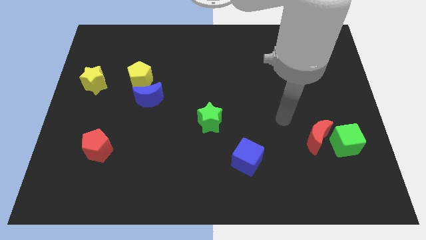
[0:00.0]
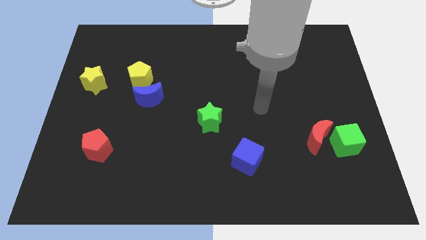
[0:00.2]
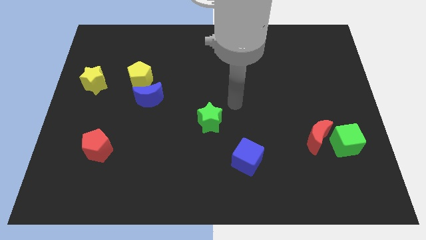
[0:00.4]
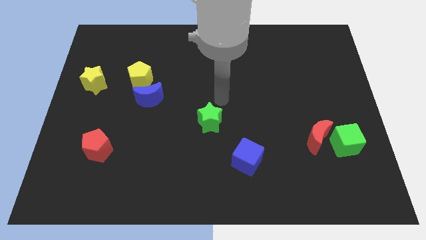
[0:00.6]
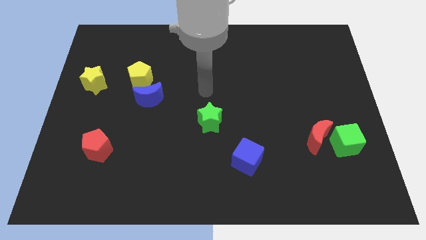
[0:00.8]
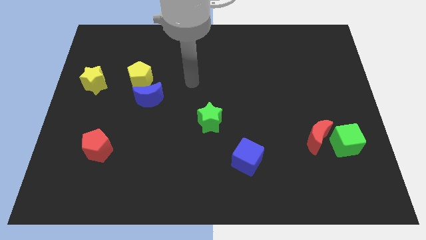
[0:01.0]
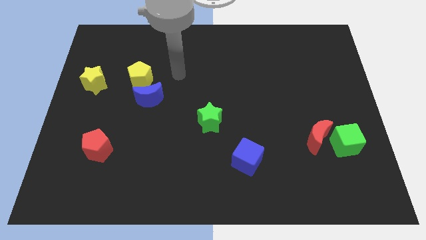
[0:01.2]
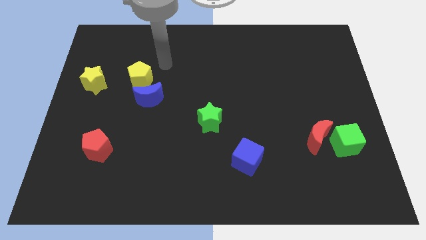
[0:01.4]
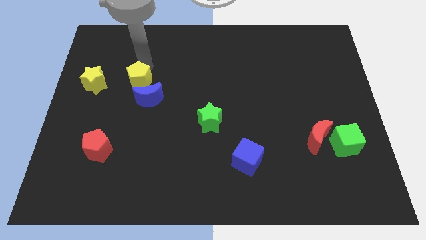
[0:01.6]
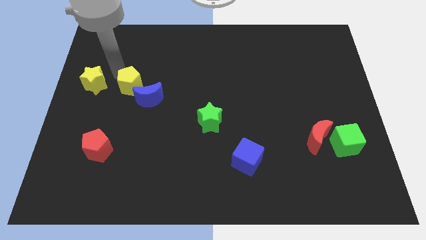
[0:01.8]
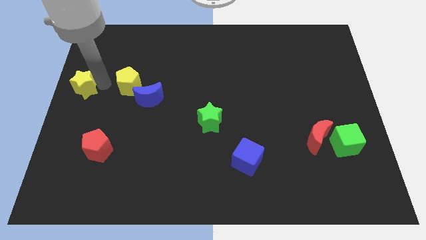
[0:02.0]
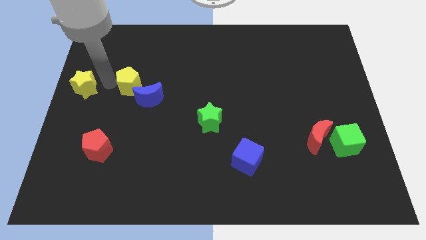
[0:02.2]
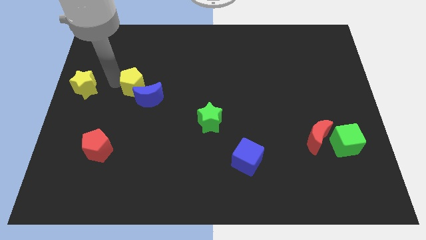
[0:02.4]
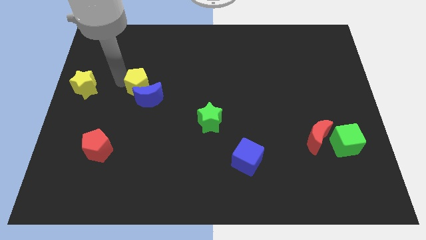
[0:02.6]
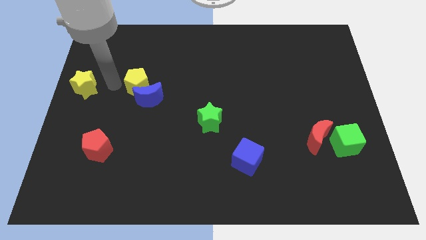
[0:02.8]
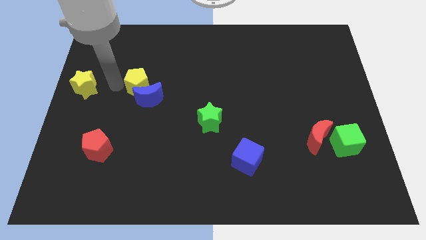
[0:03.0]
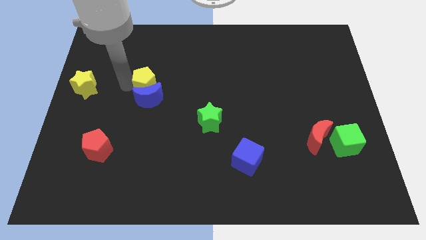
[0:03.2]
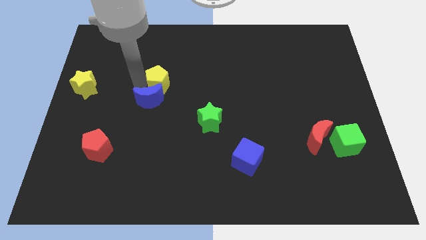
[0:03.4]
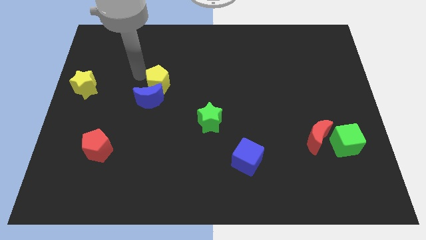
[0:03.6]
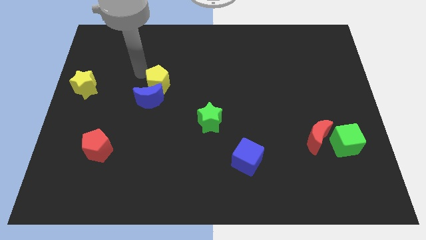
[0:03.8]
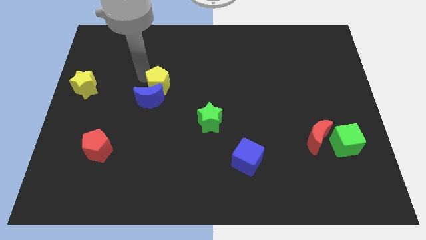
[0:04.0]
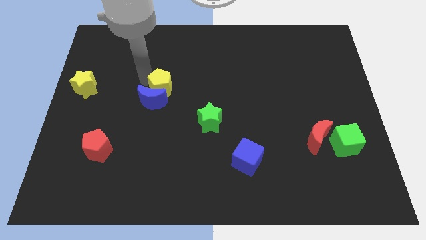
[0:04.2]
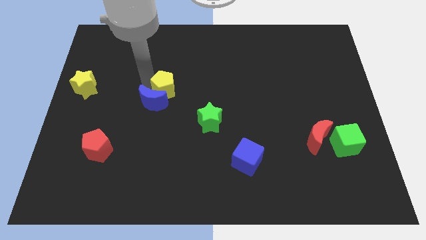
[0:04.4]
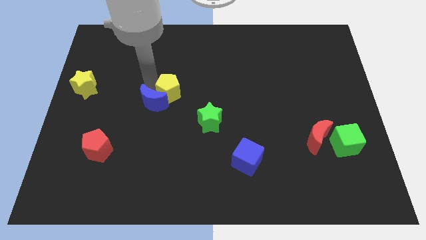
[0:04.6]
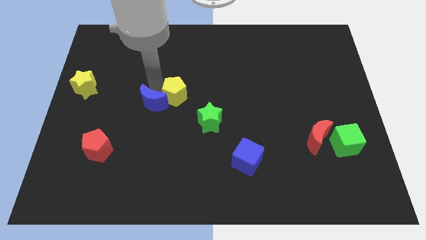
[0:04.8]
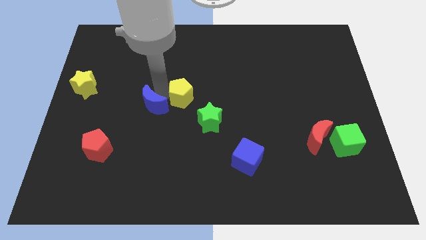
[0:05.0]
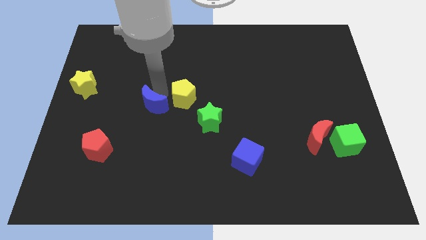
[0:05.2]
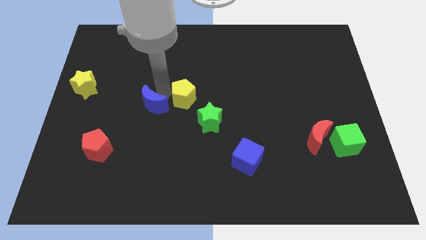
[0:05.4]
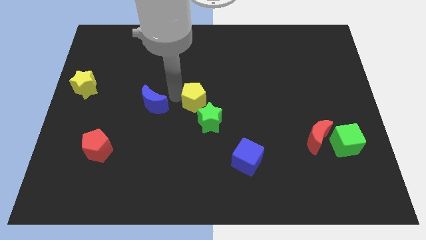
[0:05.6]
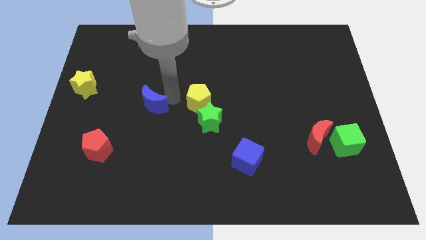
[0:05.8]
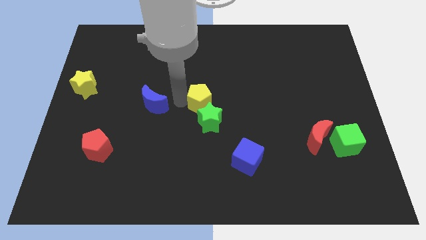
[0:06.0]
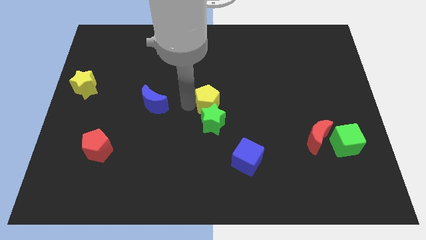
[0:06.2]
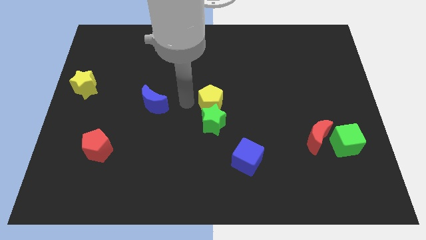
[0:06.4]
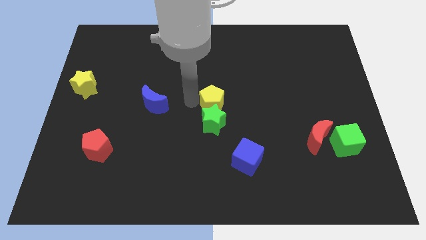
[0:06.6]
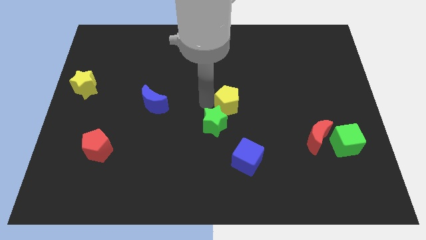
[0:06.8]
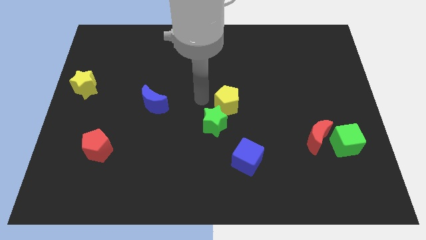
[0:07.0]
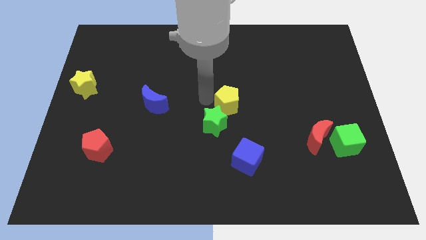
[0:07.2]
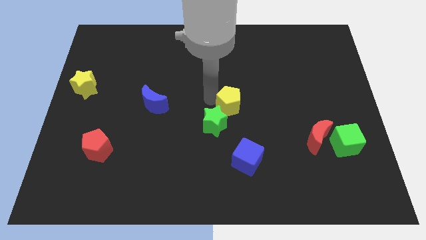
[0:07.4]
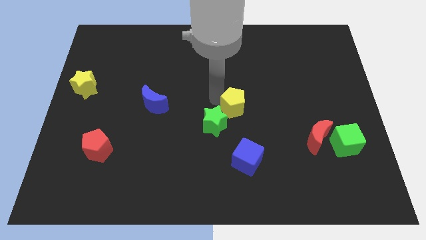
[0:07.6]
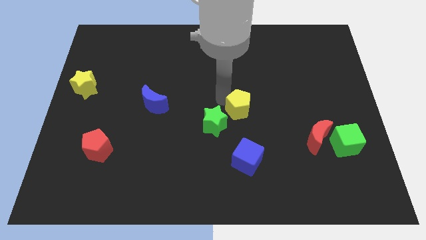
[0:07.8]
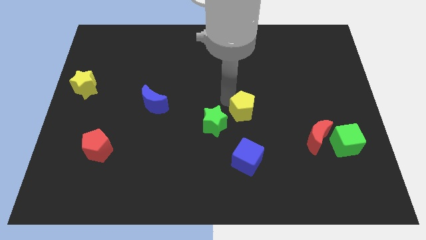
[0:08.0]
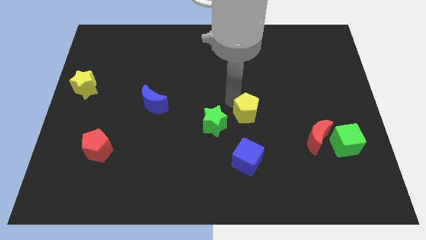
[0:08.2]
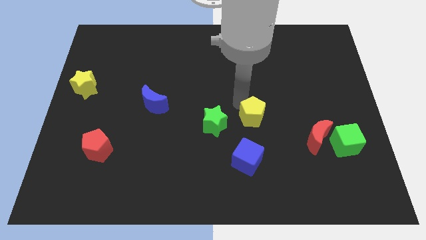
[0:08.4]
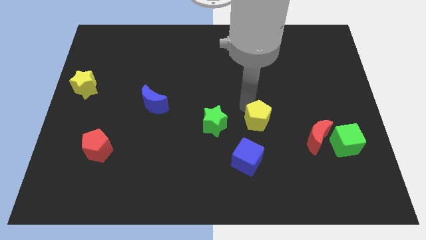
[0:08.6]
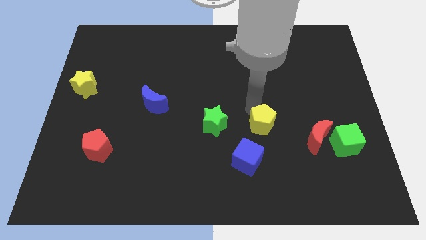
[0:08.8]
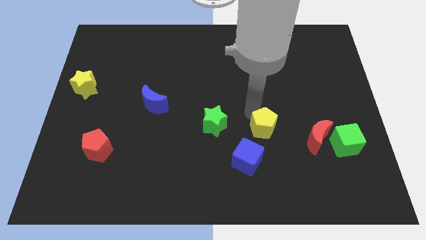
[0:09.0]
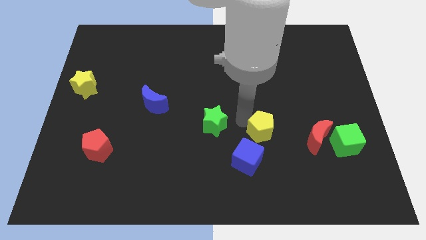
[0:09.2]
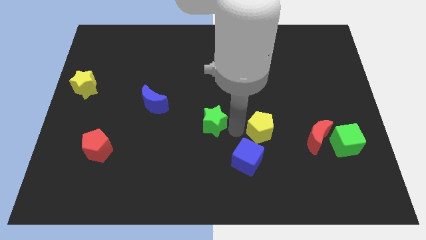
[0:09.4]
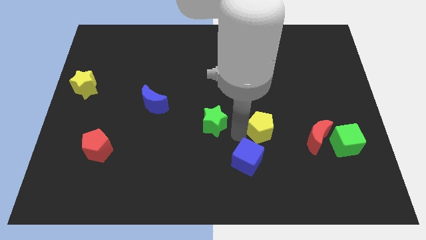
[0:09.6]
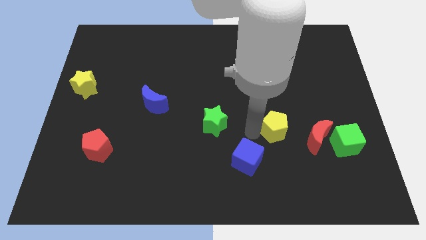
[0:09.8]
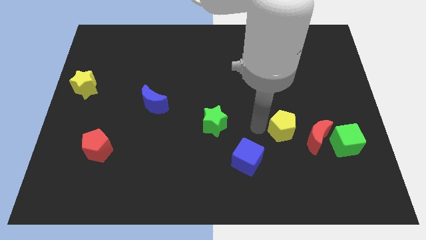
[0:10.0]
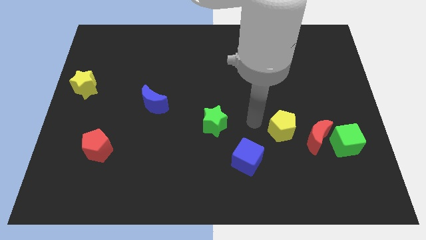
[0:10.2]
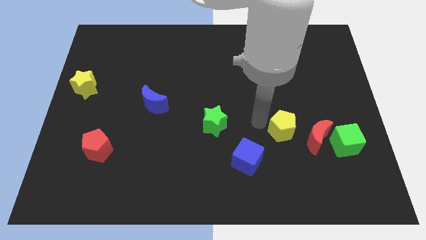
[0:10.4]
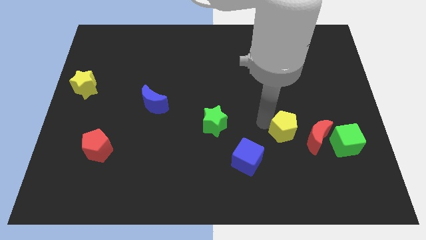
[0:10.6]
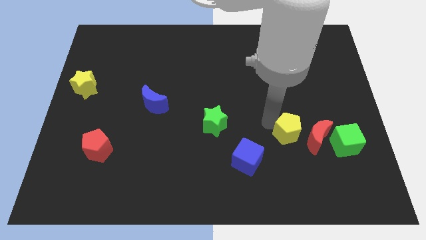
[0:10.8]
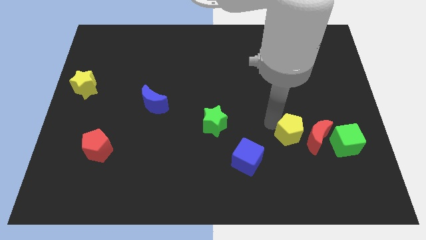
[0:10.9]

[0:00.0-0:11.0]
slide the yellow pentagon towards the red moon

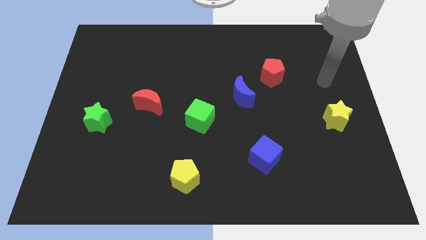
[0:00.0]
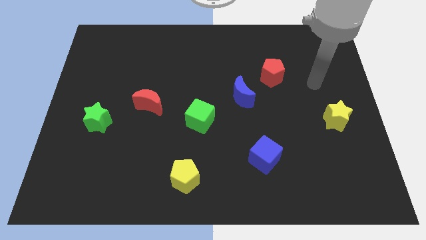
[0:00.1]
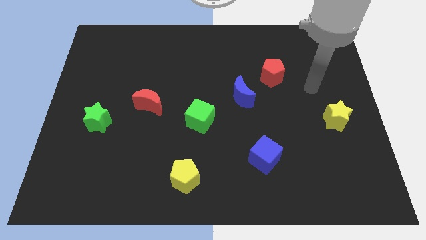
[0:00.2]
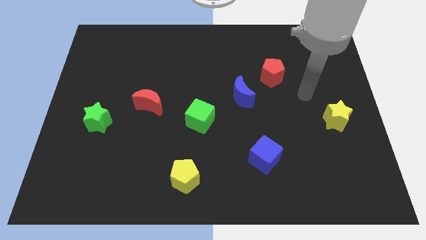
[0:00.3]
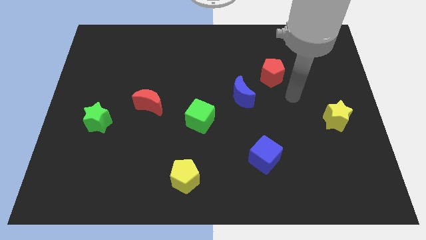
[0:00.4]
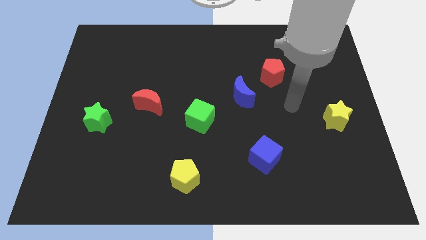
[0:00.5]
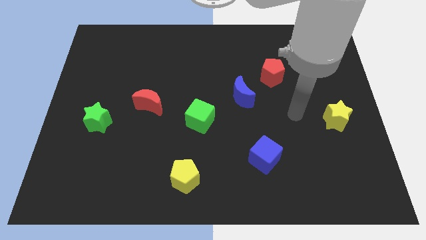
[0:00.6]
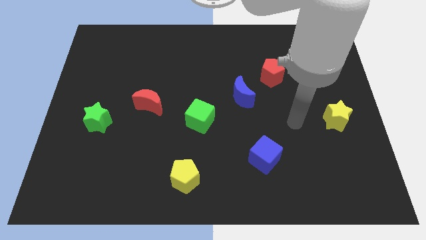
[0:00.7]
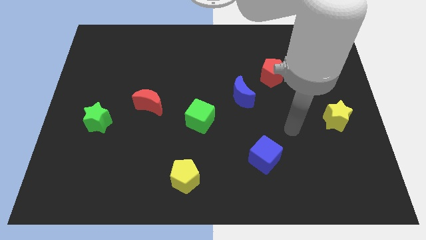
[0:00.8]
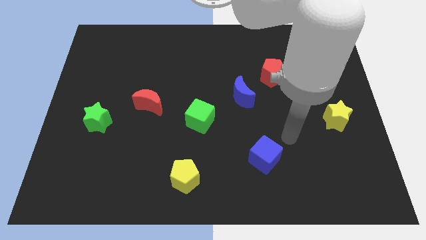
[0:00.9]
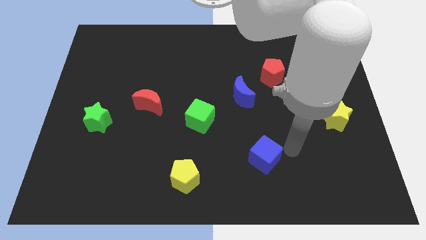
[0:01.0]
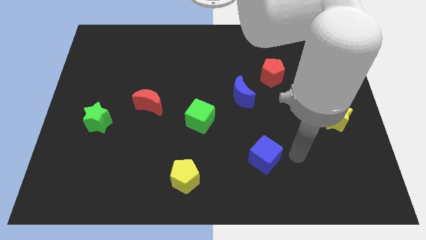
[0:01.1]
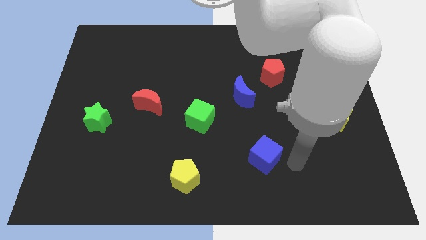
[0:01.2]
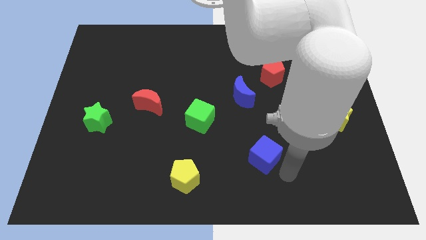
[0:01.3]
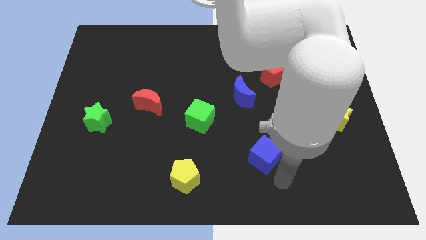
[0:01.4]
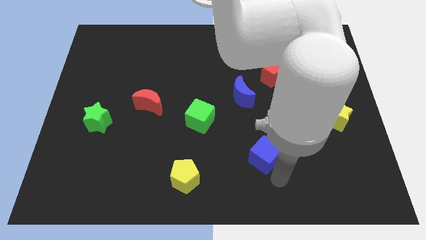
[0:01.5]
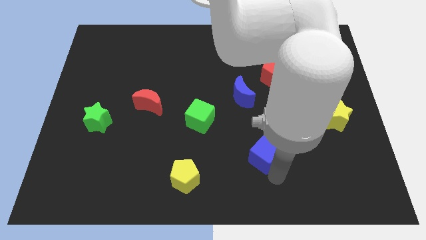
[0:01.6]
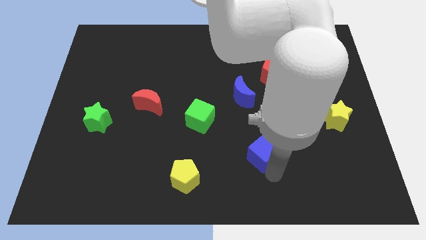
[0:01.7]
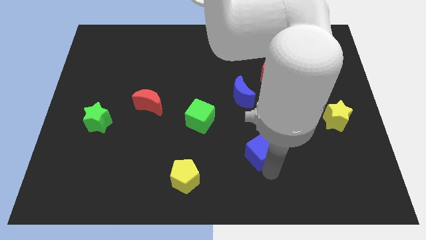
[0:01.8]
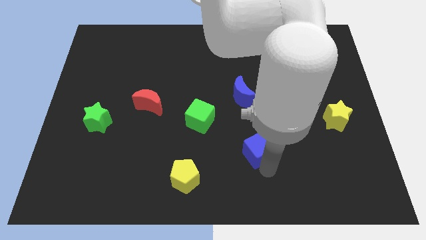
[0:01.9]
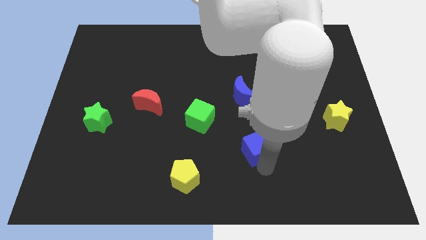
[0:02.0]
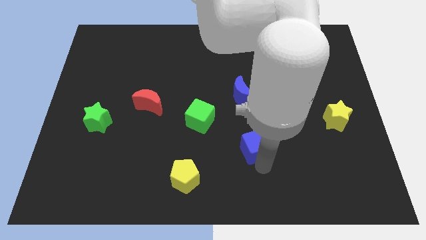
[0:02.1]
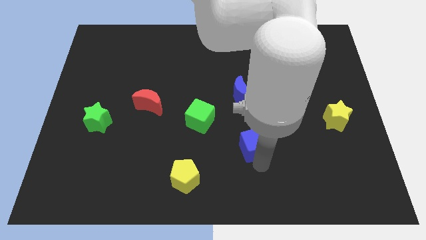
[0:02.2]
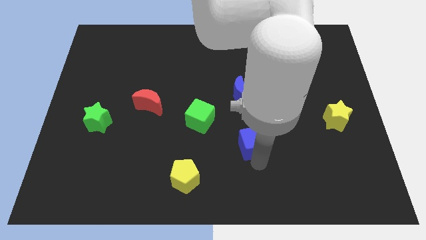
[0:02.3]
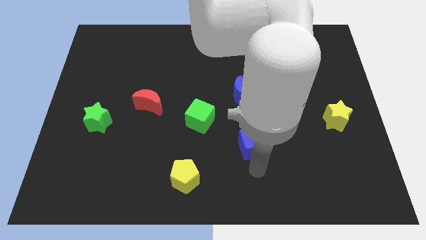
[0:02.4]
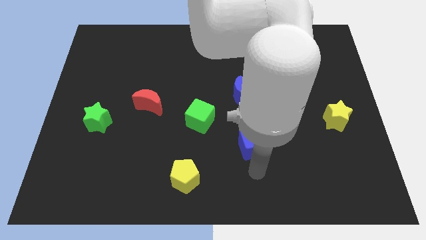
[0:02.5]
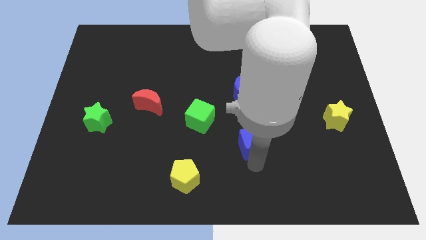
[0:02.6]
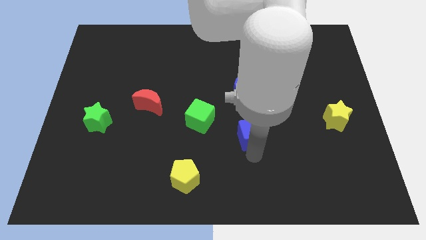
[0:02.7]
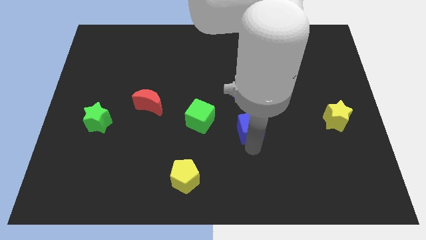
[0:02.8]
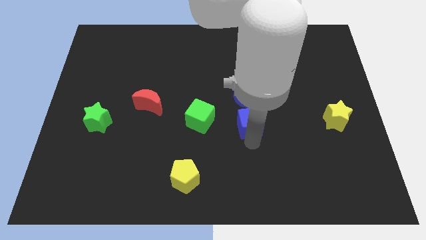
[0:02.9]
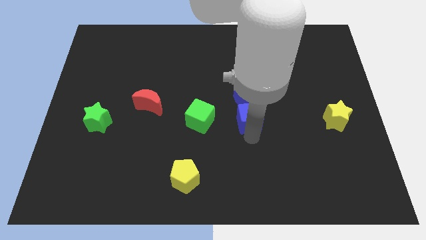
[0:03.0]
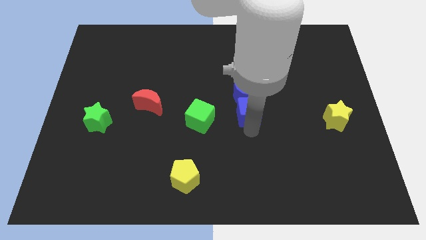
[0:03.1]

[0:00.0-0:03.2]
push the blue cube next to the blue moon
